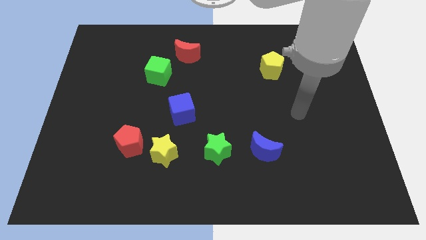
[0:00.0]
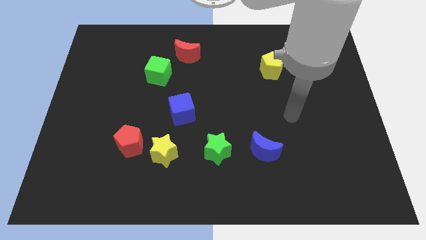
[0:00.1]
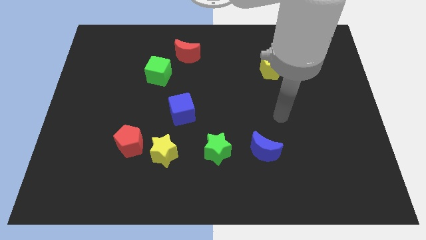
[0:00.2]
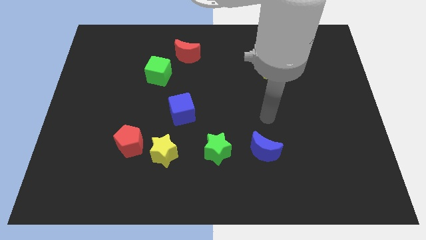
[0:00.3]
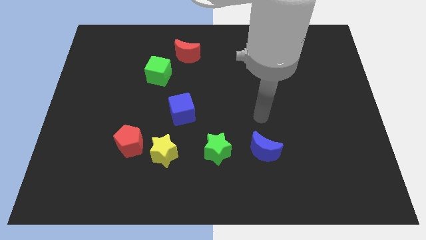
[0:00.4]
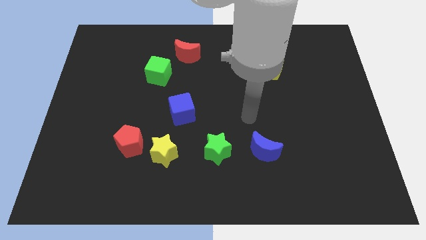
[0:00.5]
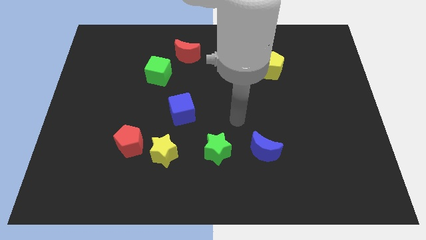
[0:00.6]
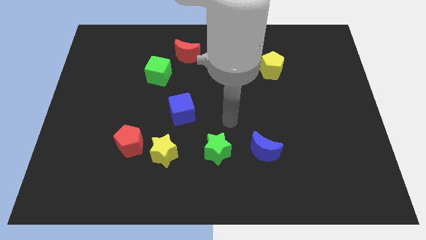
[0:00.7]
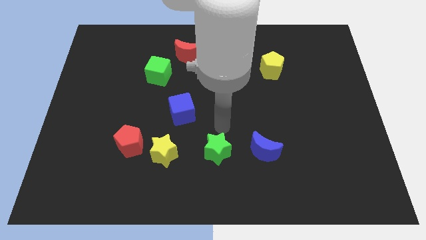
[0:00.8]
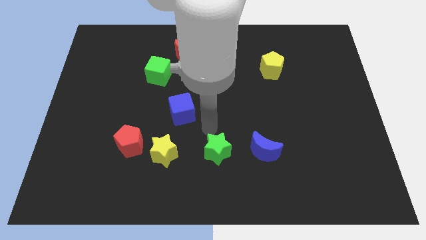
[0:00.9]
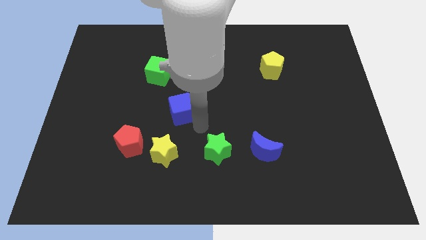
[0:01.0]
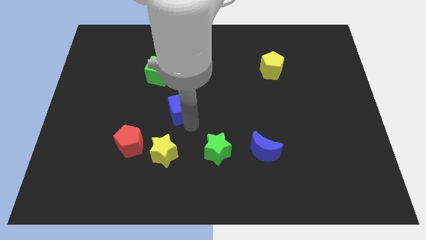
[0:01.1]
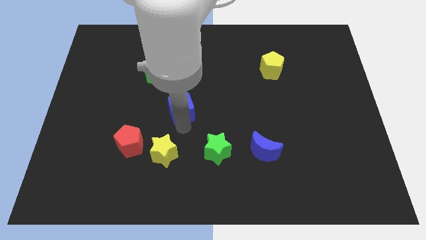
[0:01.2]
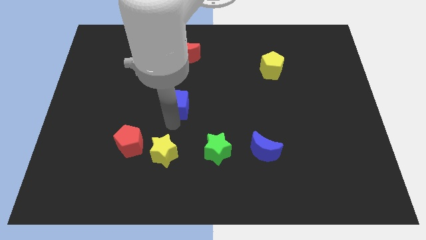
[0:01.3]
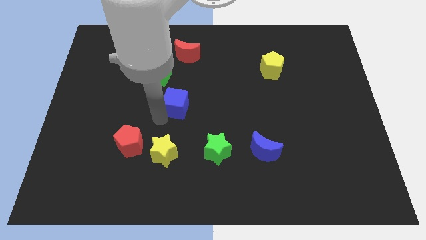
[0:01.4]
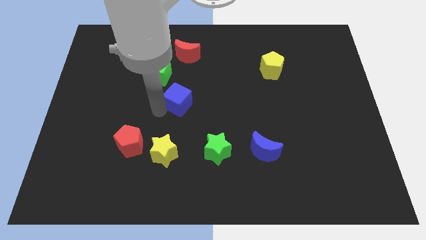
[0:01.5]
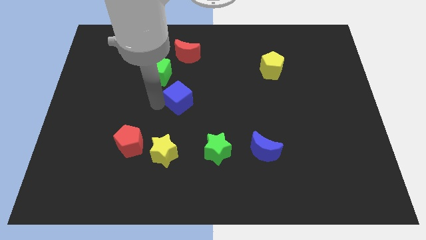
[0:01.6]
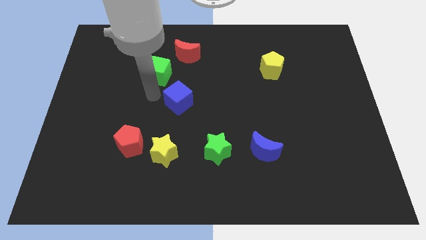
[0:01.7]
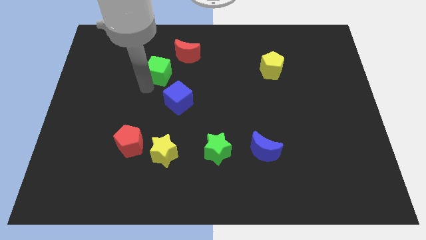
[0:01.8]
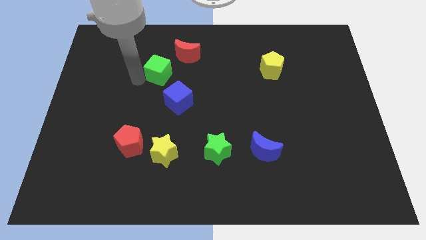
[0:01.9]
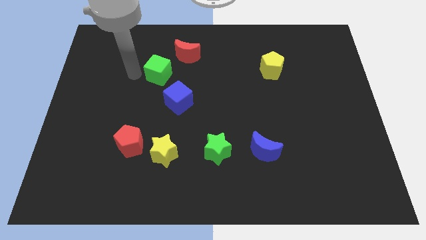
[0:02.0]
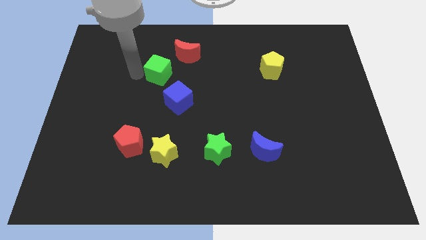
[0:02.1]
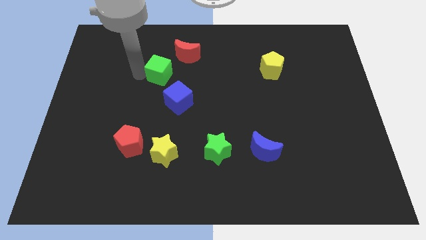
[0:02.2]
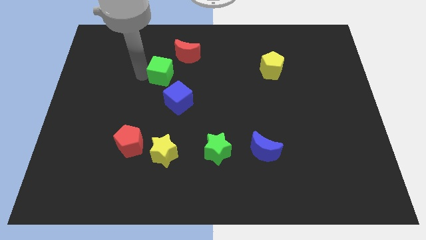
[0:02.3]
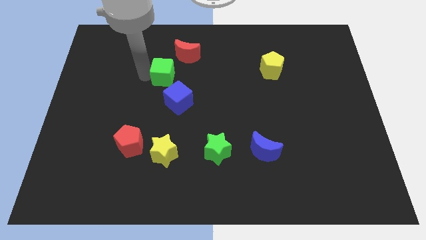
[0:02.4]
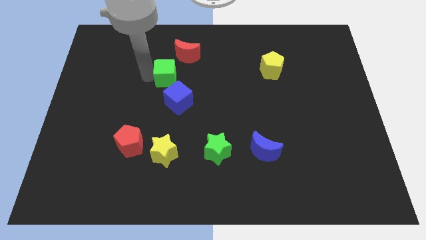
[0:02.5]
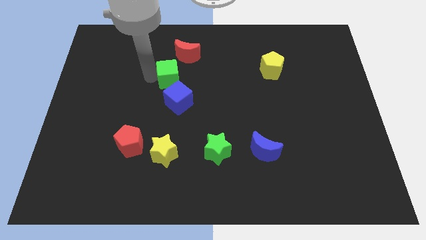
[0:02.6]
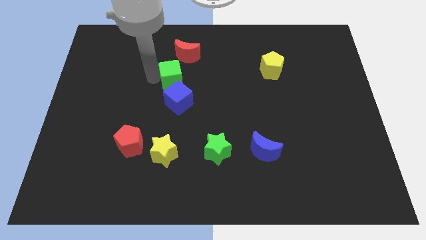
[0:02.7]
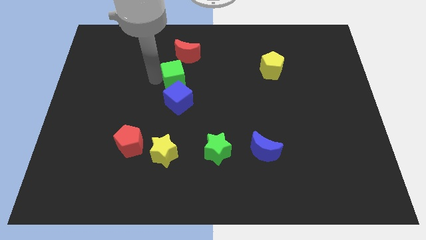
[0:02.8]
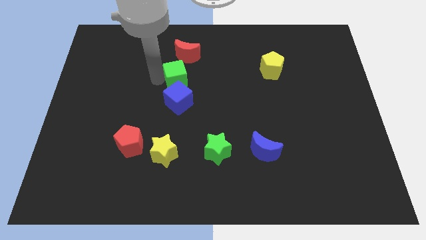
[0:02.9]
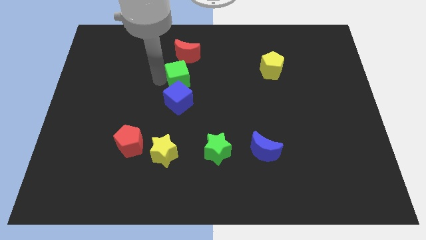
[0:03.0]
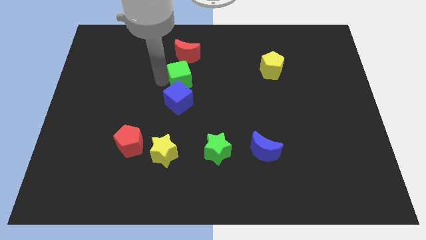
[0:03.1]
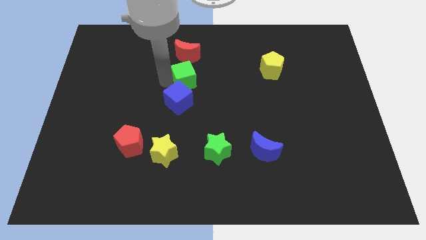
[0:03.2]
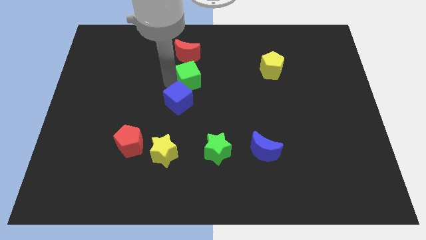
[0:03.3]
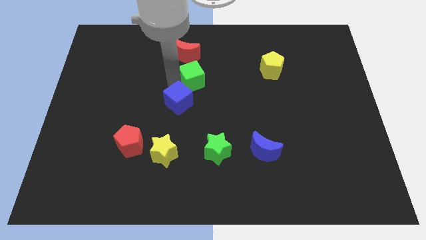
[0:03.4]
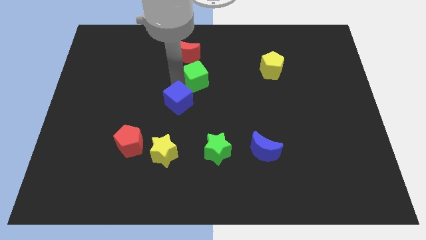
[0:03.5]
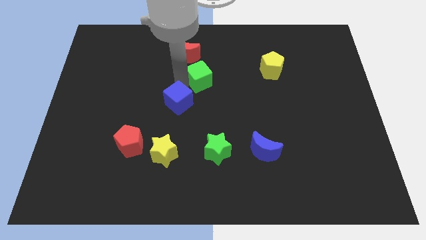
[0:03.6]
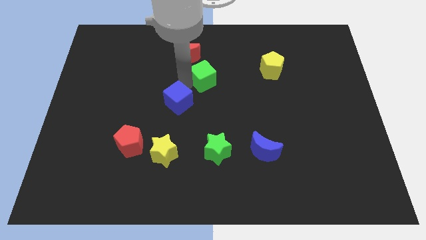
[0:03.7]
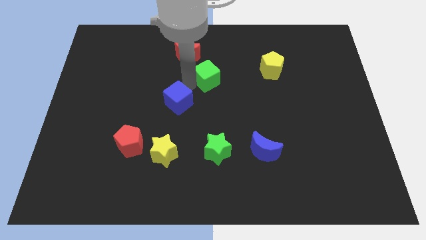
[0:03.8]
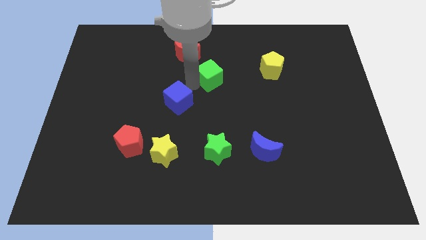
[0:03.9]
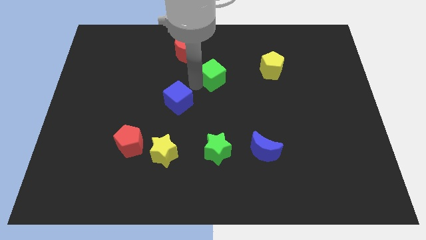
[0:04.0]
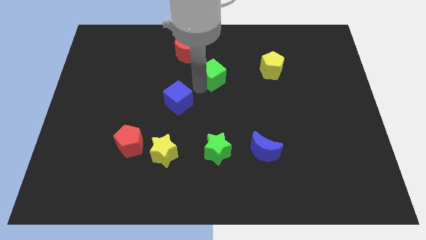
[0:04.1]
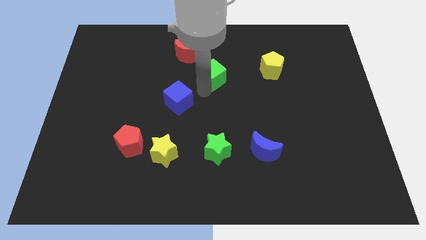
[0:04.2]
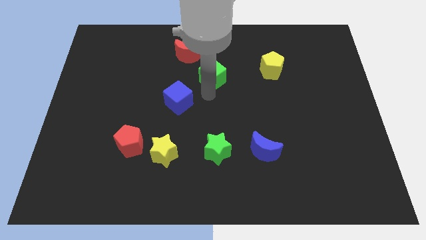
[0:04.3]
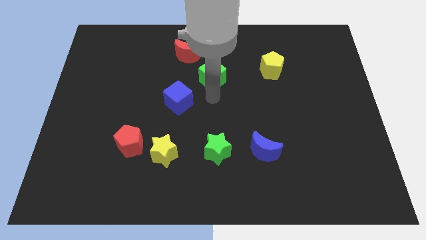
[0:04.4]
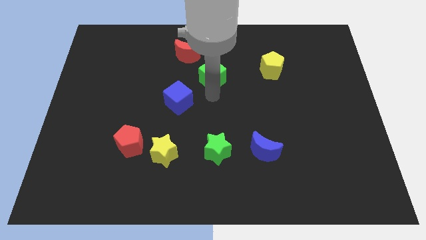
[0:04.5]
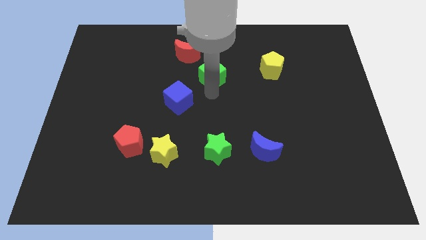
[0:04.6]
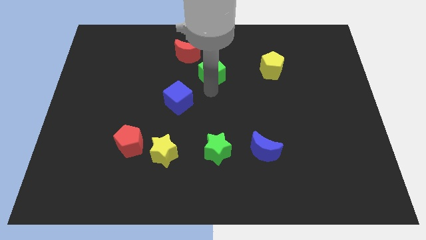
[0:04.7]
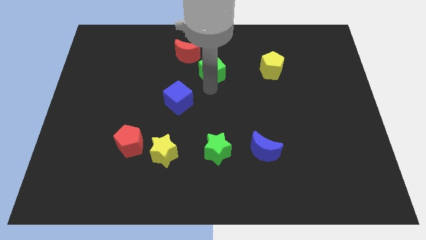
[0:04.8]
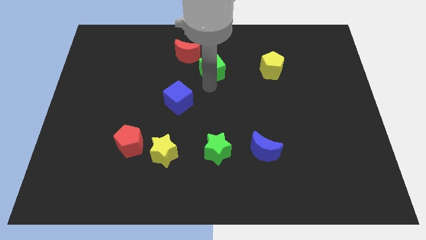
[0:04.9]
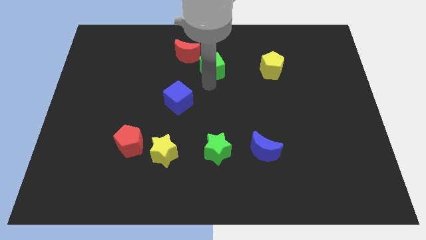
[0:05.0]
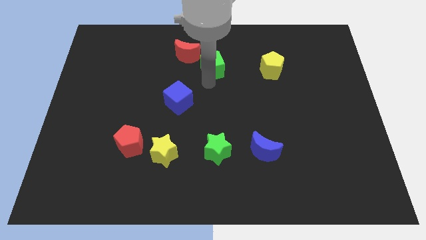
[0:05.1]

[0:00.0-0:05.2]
put the green cube right of the red moon

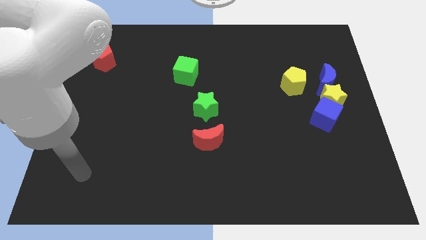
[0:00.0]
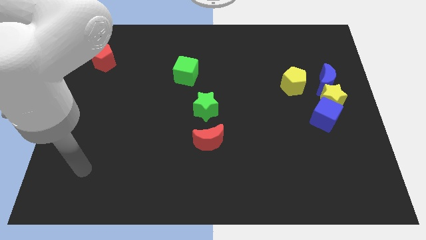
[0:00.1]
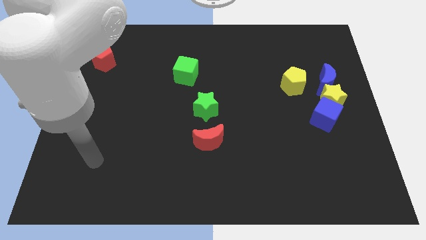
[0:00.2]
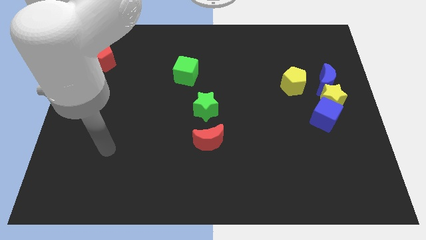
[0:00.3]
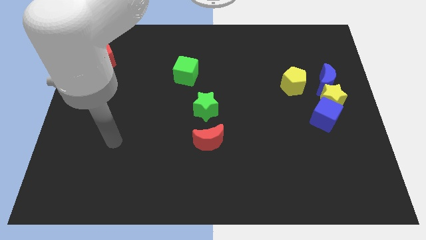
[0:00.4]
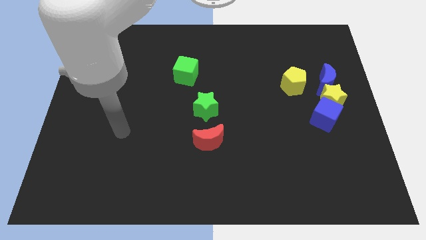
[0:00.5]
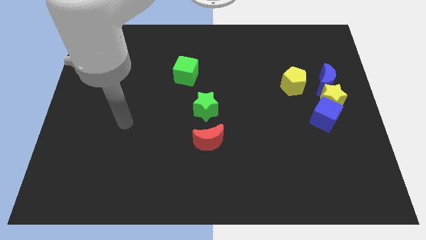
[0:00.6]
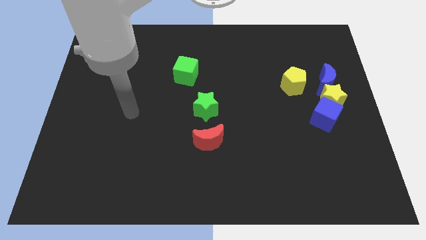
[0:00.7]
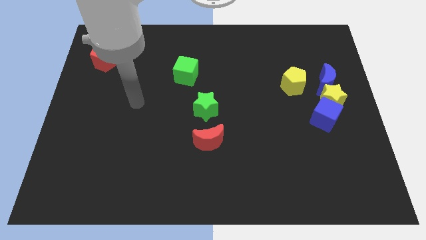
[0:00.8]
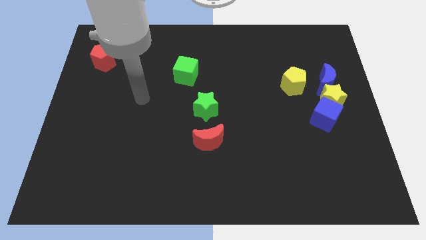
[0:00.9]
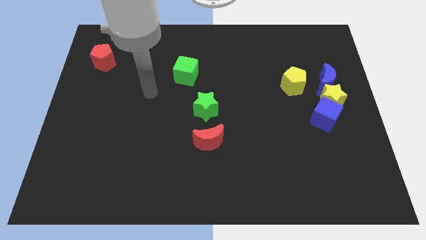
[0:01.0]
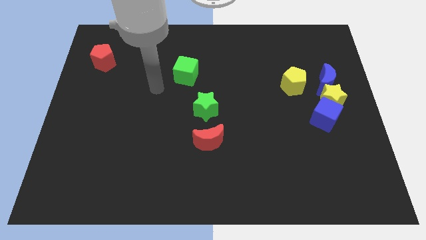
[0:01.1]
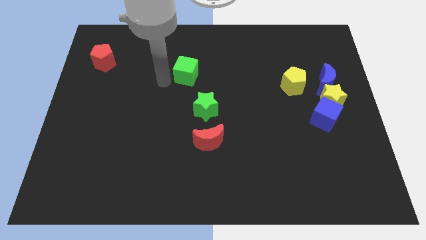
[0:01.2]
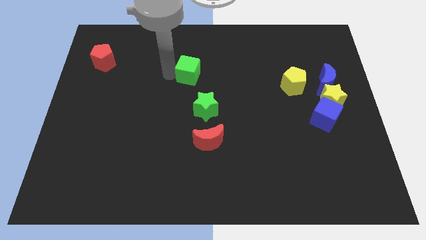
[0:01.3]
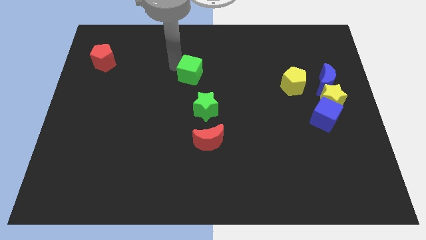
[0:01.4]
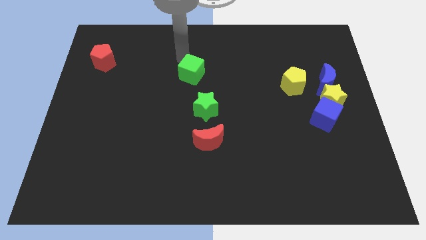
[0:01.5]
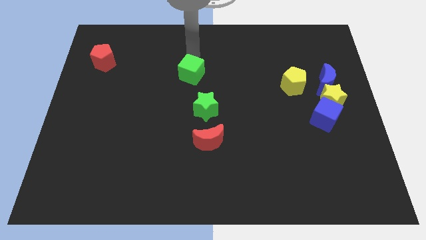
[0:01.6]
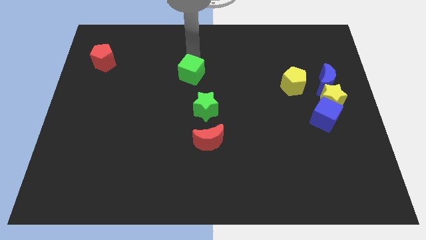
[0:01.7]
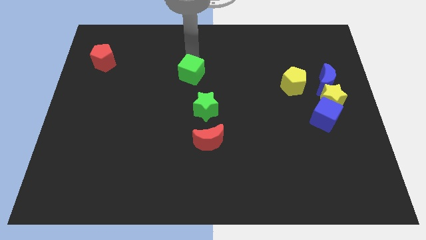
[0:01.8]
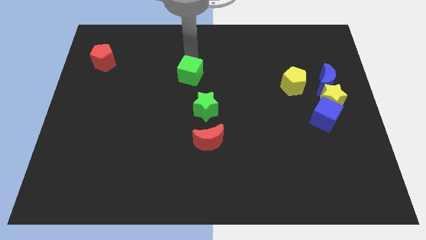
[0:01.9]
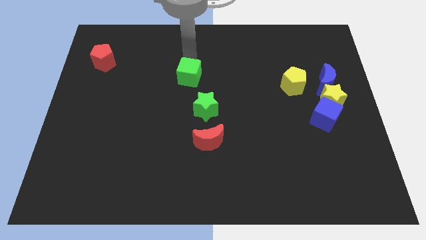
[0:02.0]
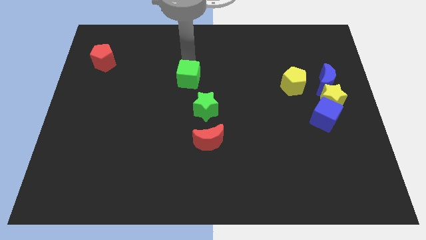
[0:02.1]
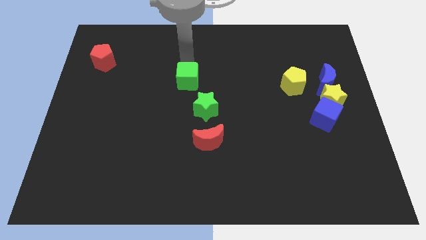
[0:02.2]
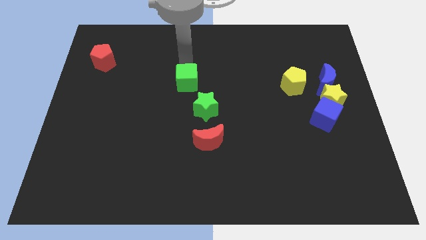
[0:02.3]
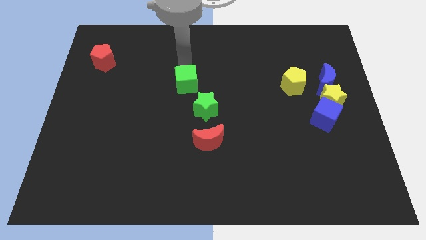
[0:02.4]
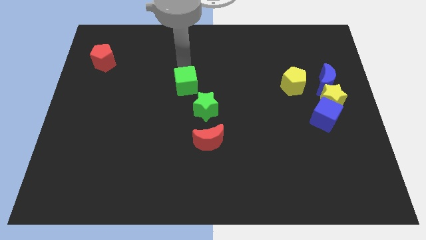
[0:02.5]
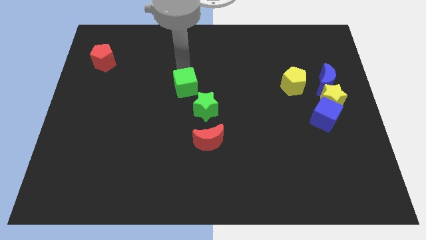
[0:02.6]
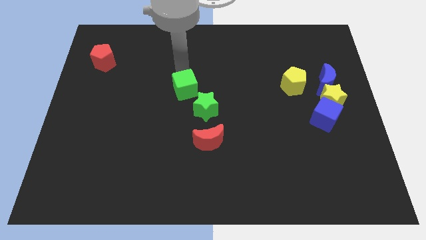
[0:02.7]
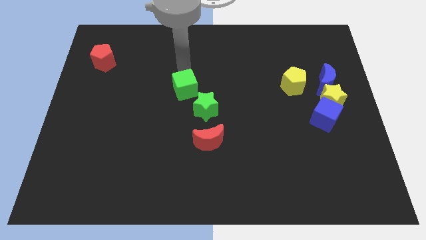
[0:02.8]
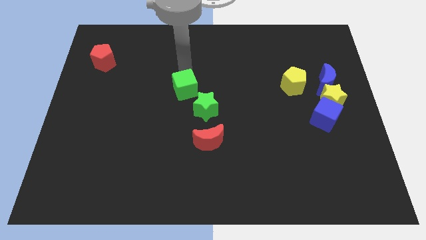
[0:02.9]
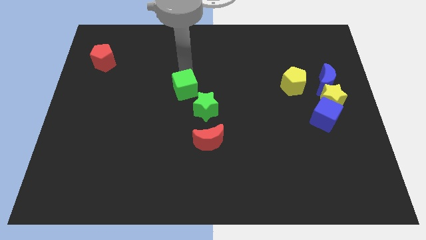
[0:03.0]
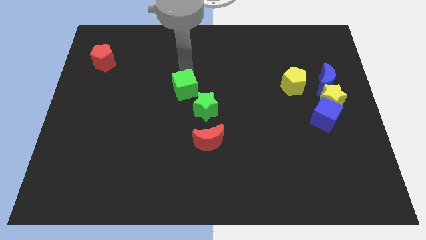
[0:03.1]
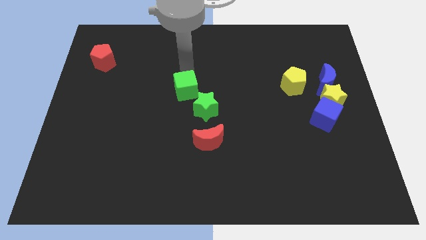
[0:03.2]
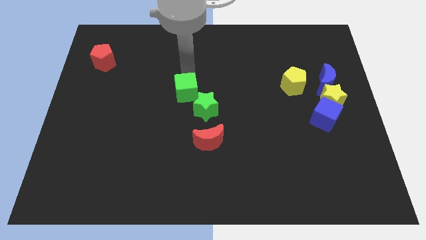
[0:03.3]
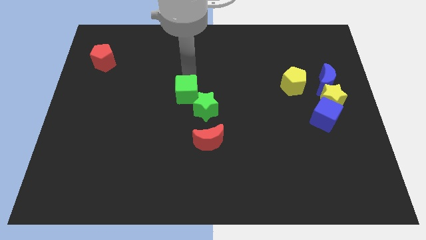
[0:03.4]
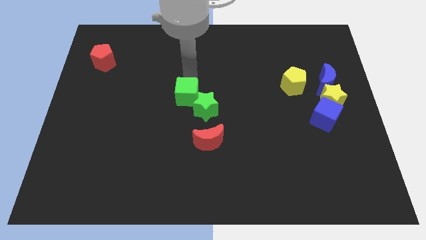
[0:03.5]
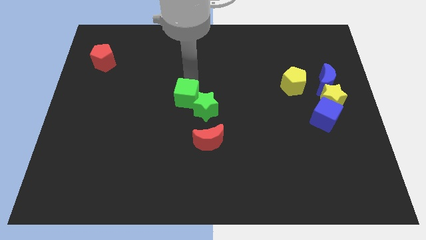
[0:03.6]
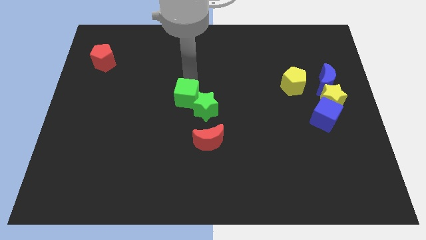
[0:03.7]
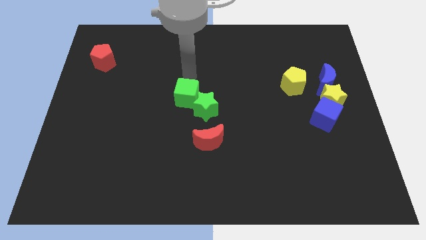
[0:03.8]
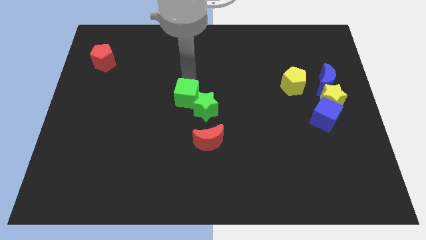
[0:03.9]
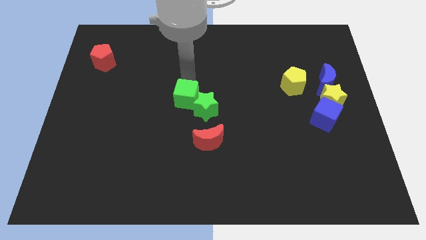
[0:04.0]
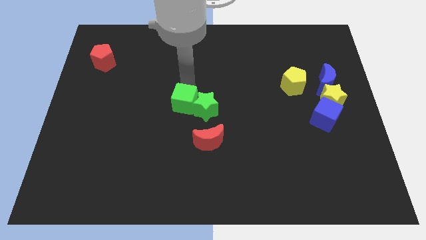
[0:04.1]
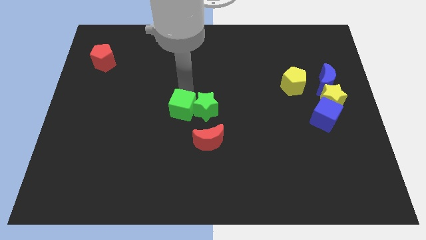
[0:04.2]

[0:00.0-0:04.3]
put the green cube to the top left of the red moon
